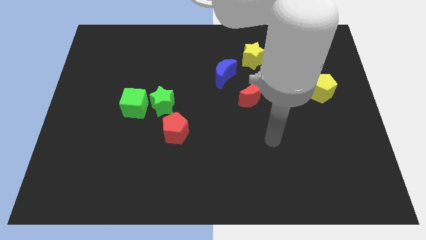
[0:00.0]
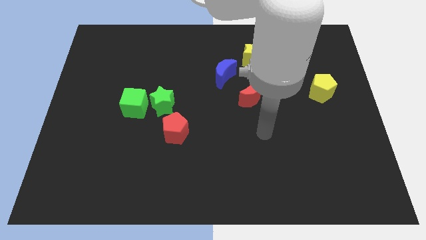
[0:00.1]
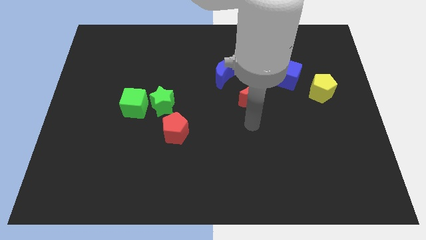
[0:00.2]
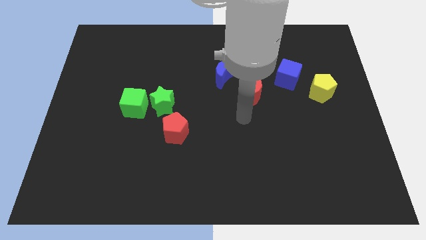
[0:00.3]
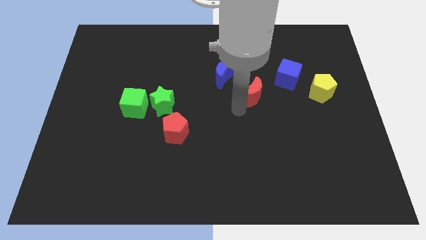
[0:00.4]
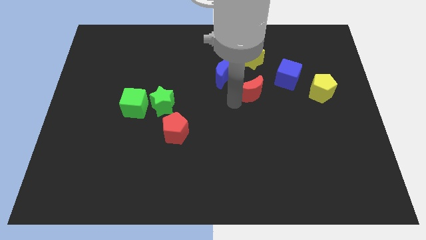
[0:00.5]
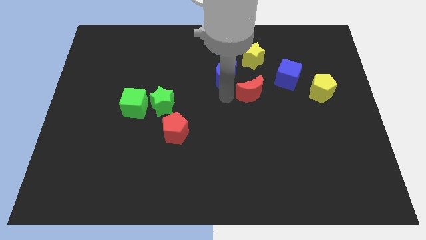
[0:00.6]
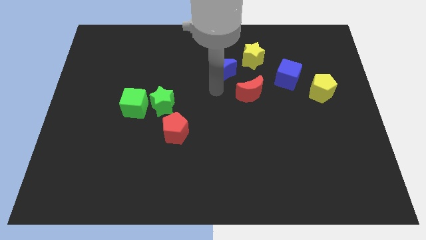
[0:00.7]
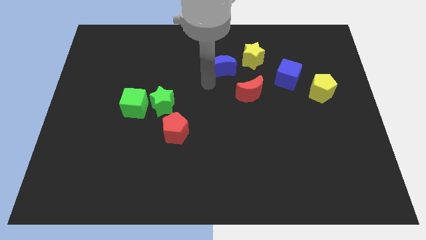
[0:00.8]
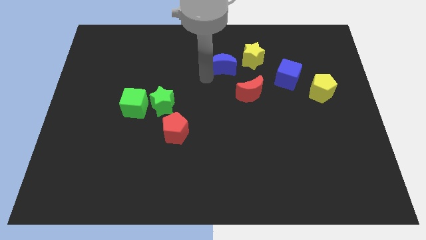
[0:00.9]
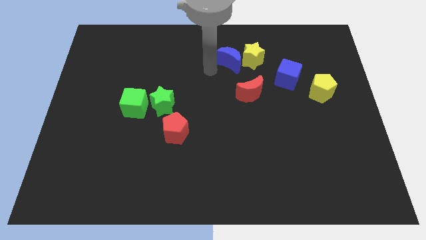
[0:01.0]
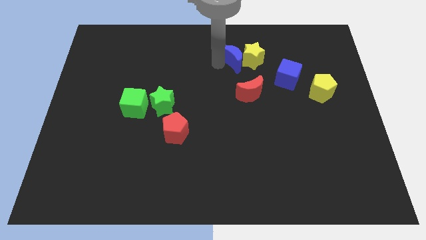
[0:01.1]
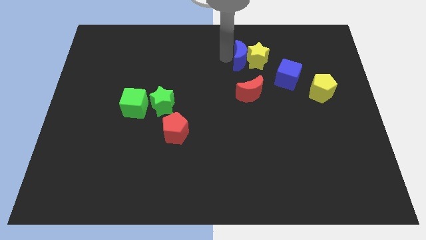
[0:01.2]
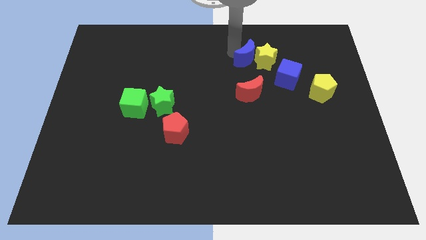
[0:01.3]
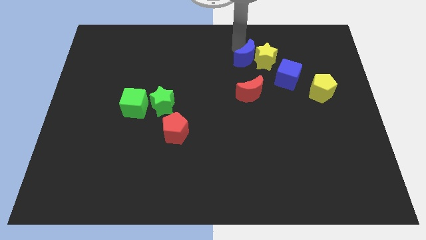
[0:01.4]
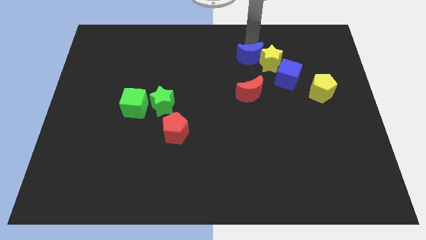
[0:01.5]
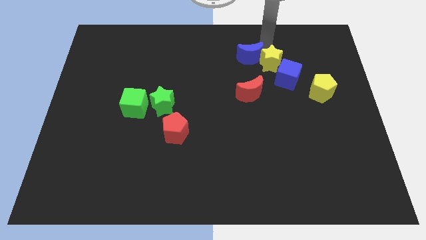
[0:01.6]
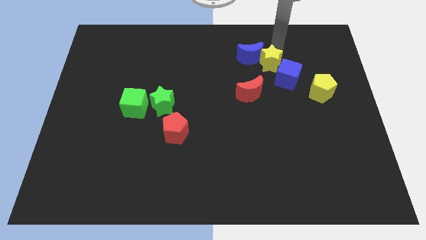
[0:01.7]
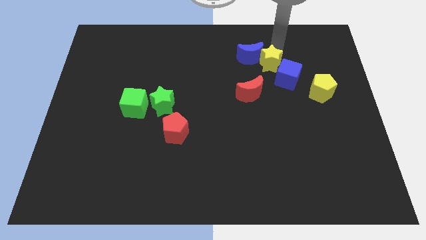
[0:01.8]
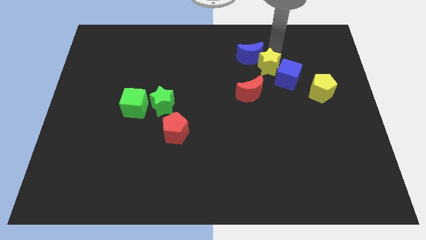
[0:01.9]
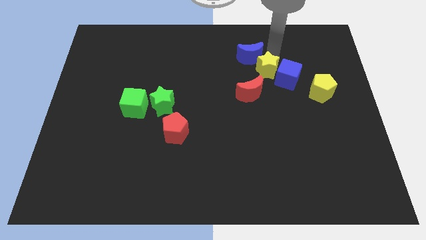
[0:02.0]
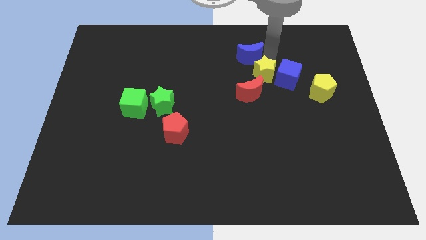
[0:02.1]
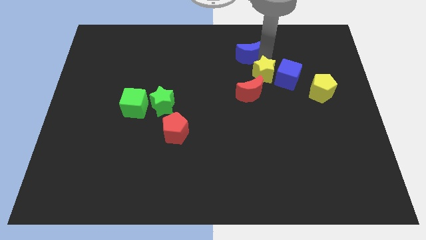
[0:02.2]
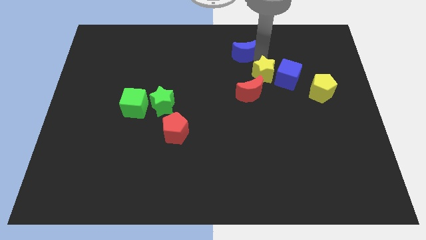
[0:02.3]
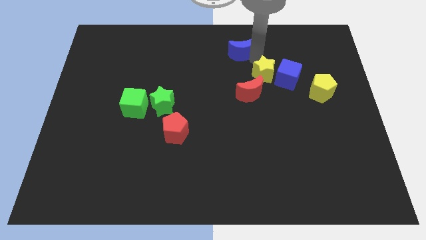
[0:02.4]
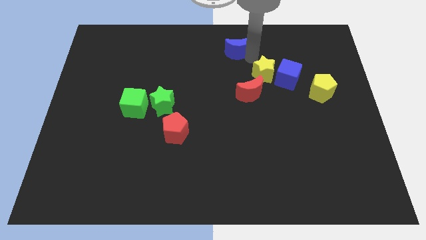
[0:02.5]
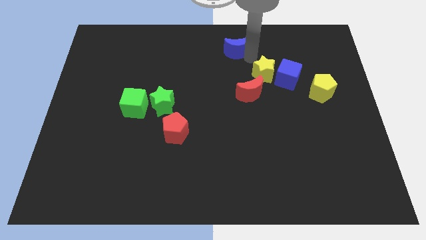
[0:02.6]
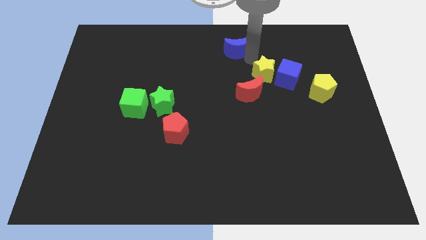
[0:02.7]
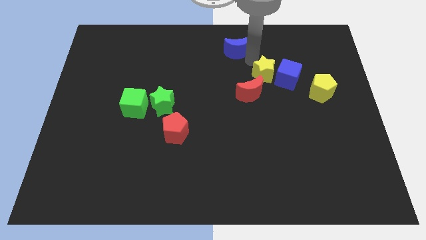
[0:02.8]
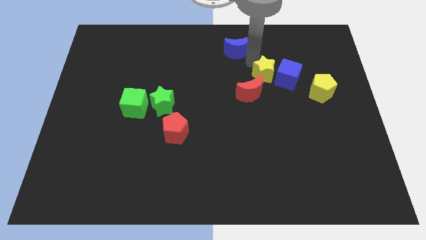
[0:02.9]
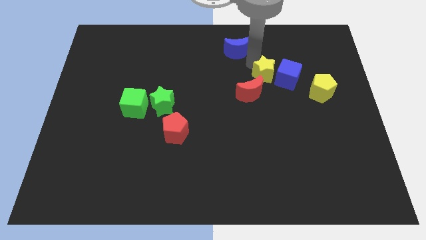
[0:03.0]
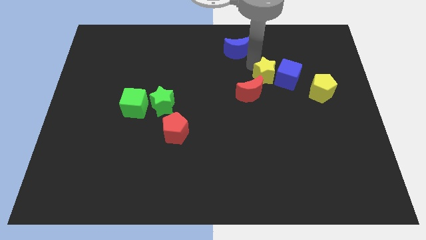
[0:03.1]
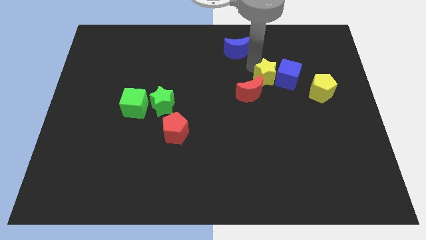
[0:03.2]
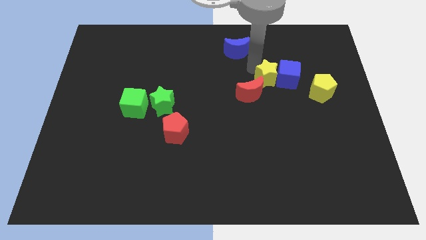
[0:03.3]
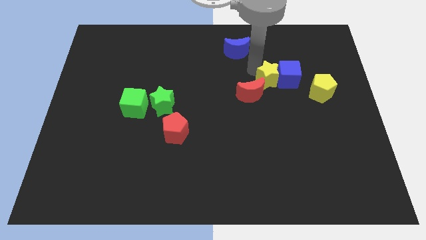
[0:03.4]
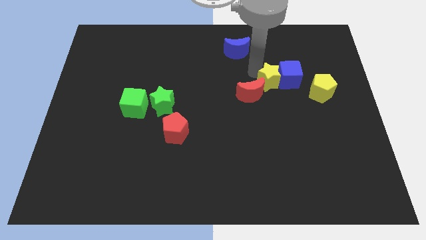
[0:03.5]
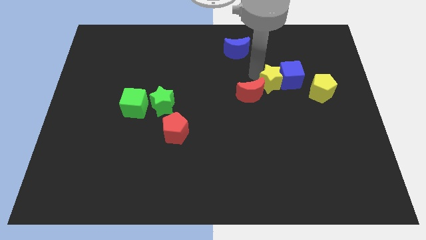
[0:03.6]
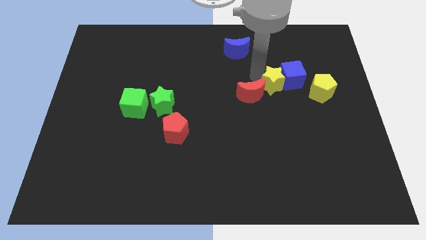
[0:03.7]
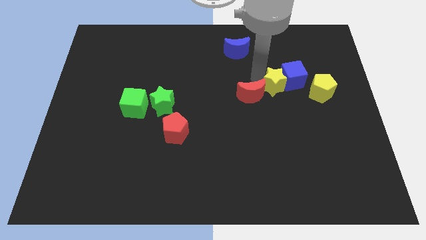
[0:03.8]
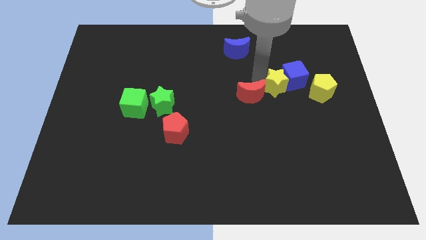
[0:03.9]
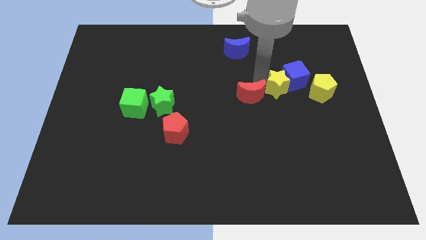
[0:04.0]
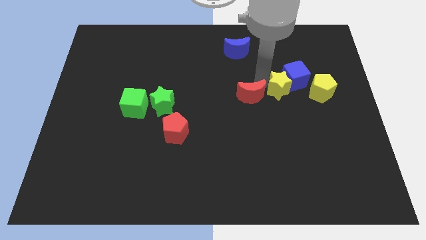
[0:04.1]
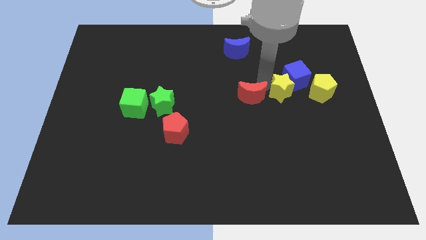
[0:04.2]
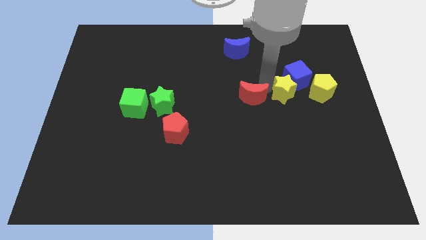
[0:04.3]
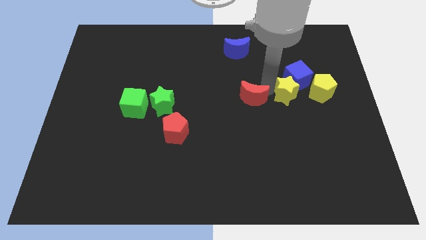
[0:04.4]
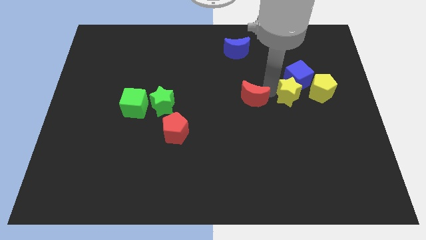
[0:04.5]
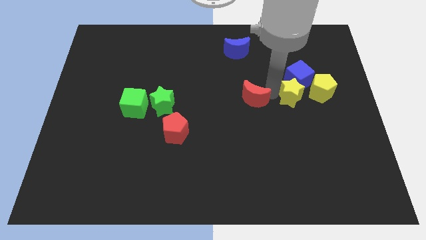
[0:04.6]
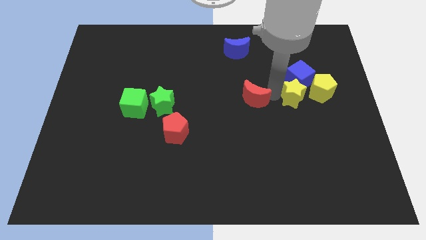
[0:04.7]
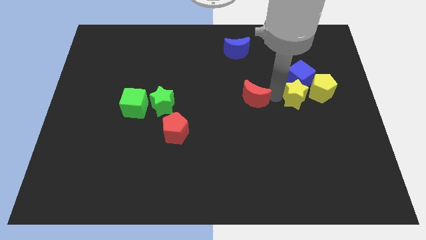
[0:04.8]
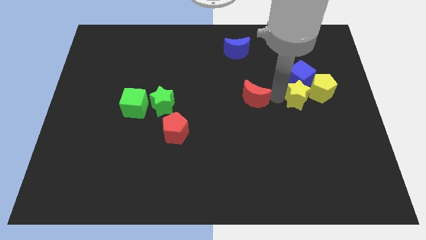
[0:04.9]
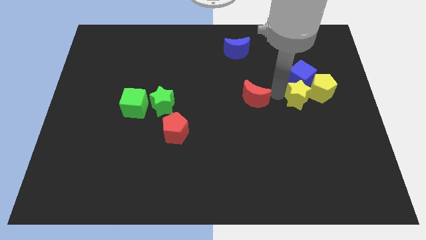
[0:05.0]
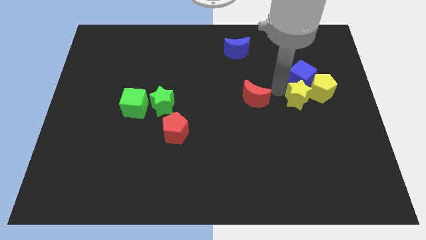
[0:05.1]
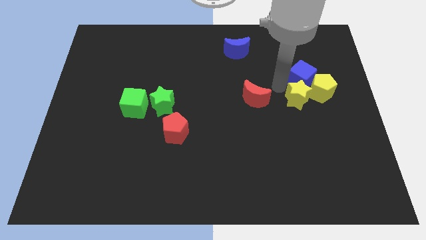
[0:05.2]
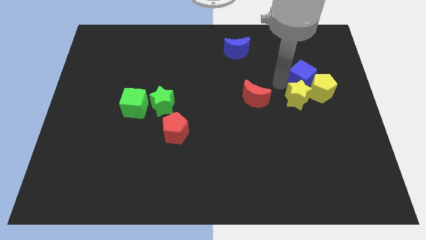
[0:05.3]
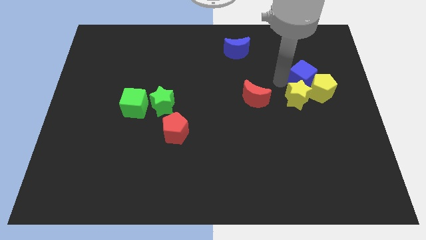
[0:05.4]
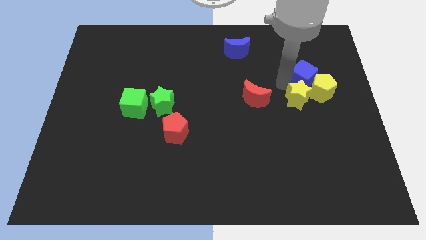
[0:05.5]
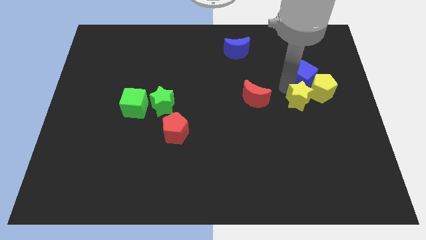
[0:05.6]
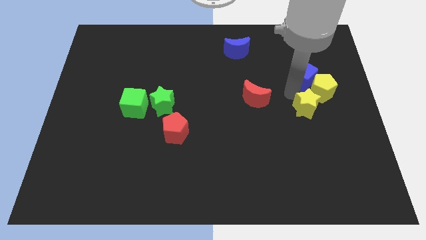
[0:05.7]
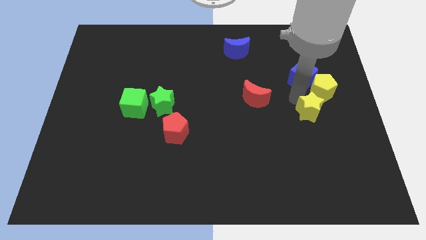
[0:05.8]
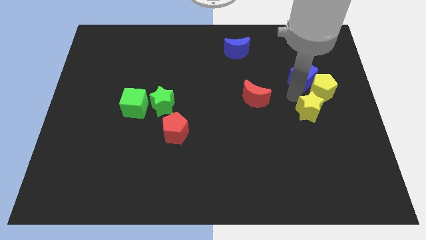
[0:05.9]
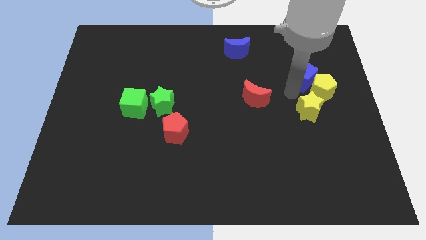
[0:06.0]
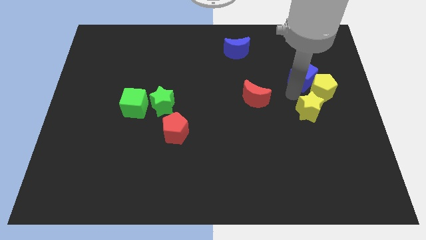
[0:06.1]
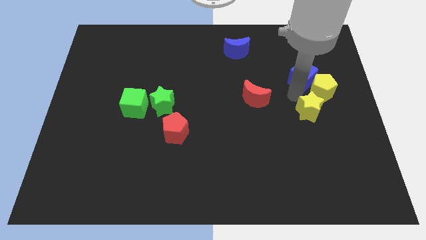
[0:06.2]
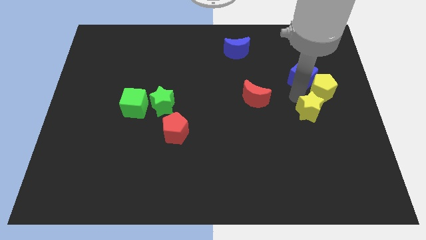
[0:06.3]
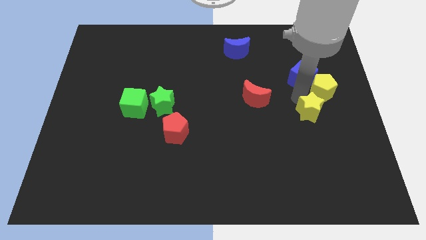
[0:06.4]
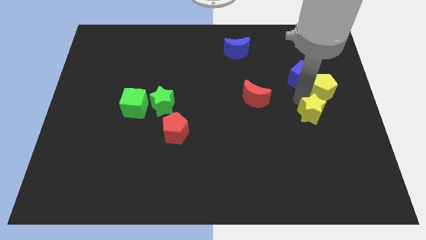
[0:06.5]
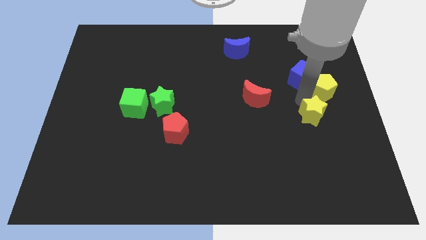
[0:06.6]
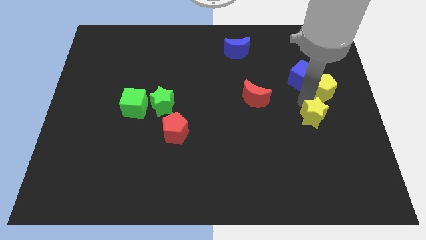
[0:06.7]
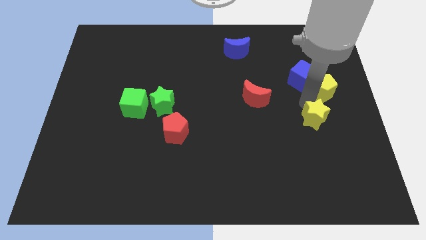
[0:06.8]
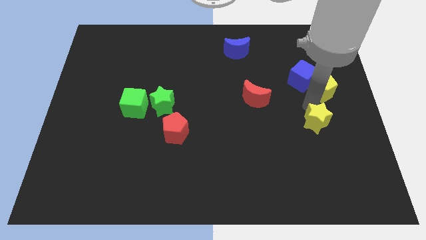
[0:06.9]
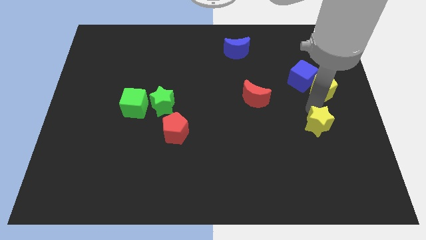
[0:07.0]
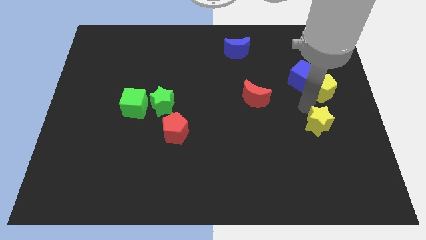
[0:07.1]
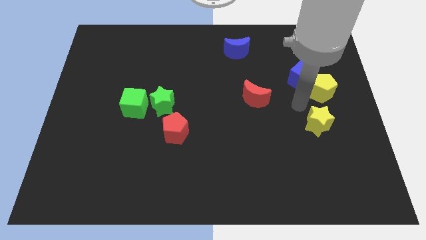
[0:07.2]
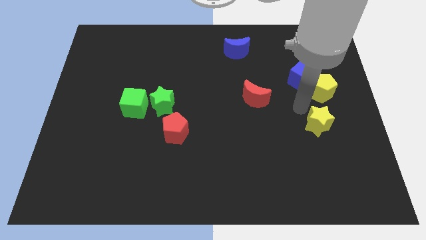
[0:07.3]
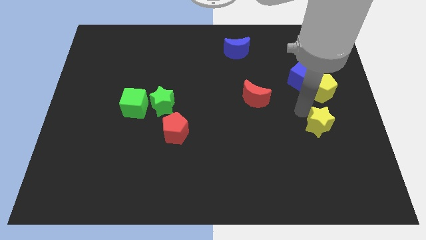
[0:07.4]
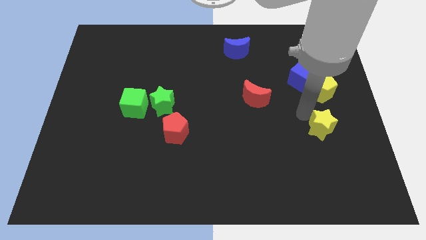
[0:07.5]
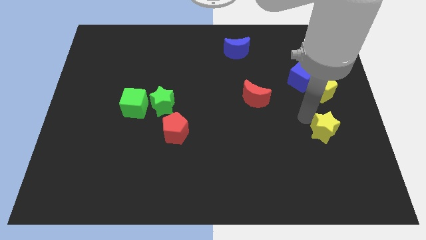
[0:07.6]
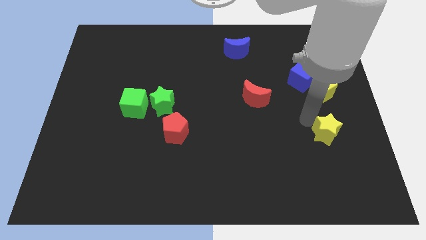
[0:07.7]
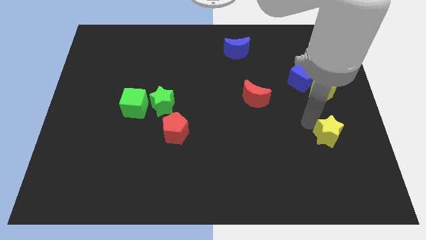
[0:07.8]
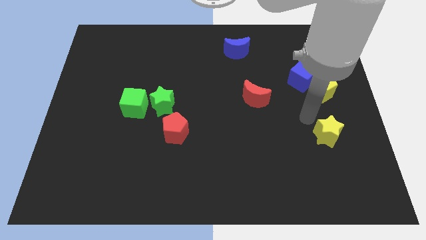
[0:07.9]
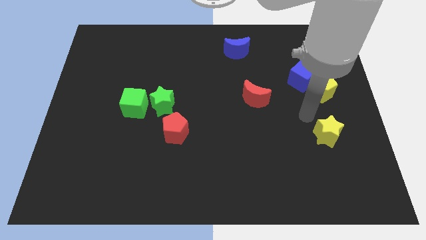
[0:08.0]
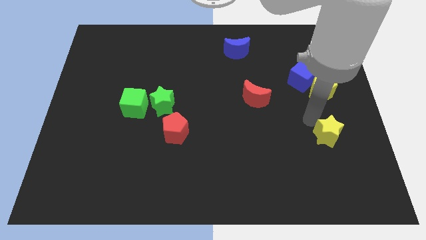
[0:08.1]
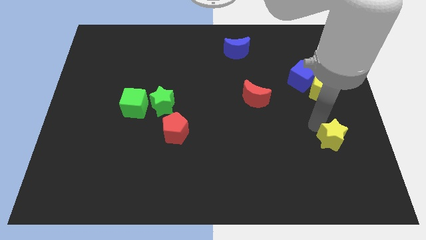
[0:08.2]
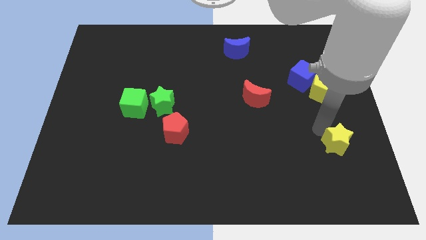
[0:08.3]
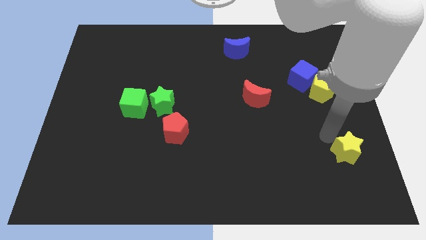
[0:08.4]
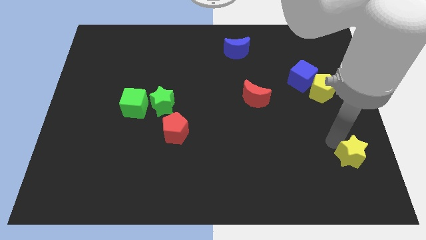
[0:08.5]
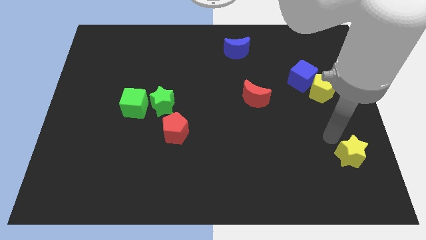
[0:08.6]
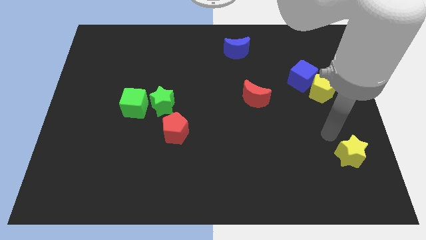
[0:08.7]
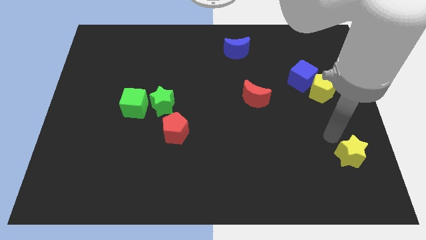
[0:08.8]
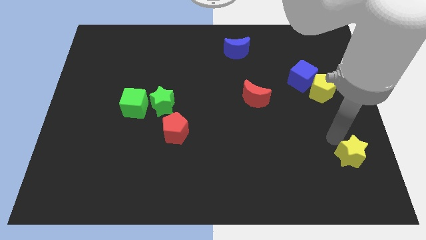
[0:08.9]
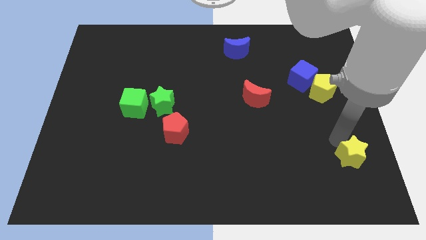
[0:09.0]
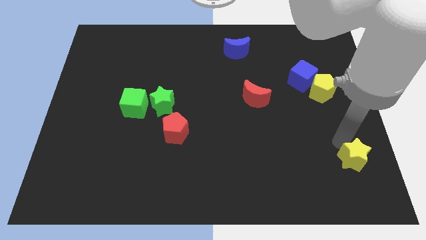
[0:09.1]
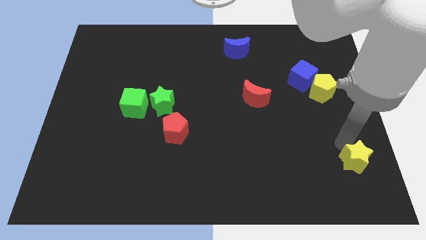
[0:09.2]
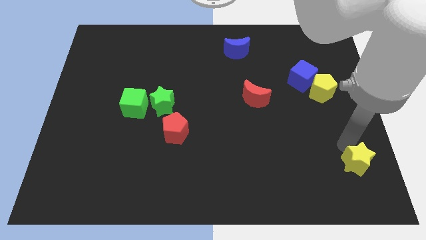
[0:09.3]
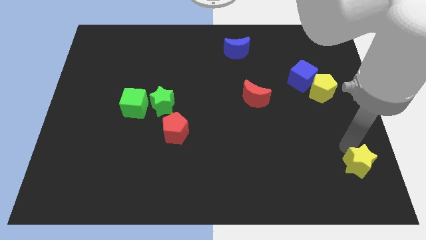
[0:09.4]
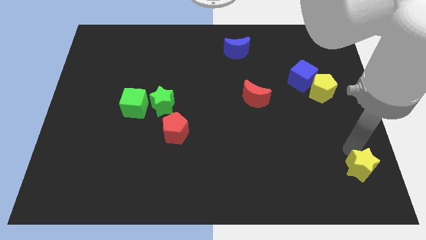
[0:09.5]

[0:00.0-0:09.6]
slide the yellow star to the lower right corner
